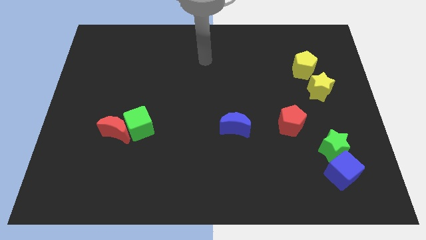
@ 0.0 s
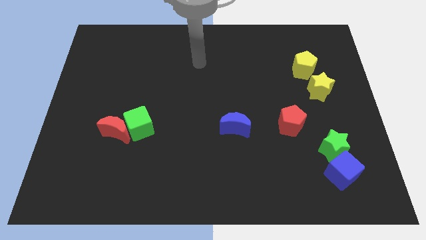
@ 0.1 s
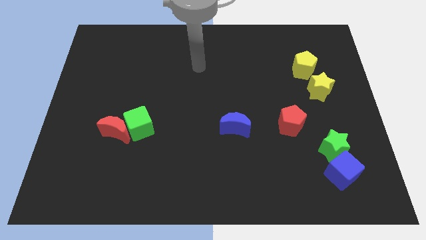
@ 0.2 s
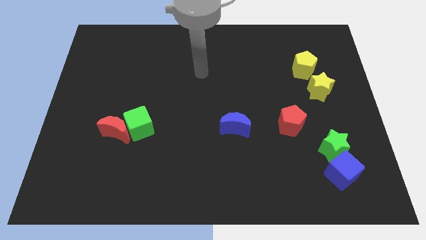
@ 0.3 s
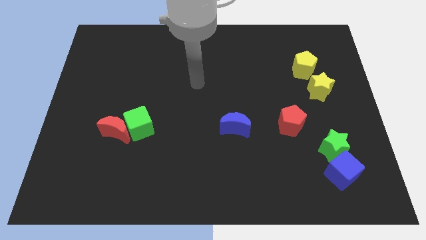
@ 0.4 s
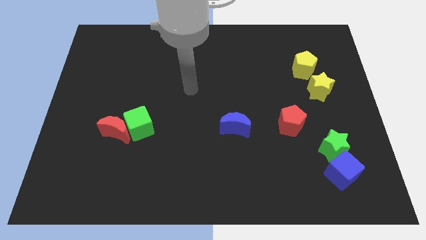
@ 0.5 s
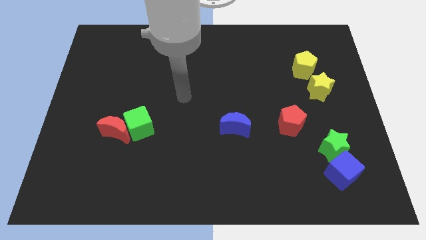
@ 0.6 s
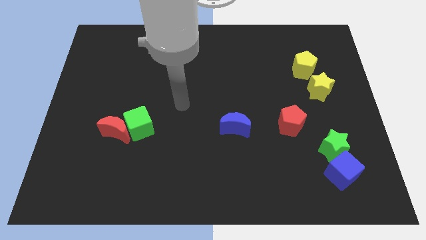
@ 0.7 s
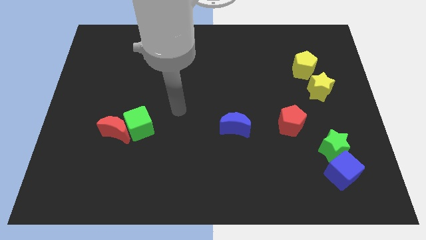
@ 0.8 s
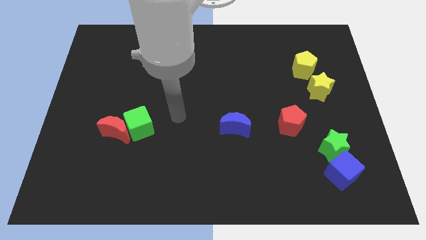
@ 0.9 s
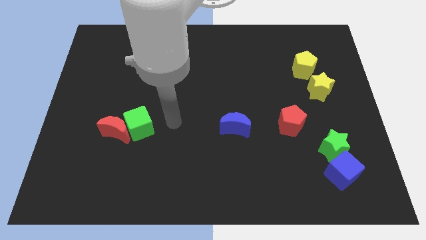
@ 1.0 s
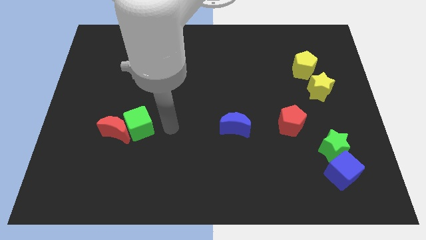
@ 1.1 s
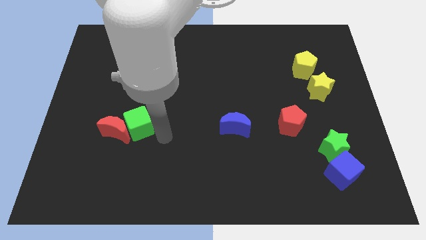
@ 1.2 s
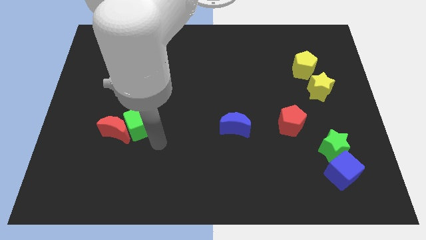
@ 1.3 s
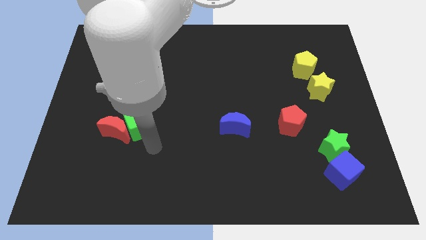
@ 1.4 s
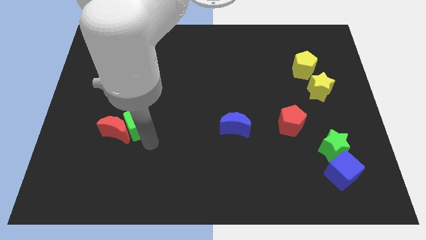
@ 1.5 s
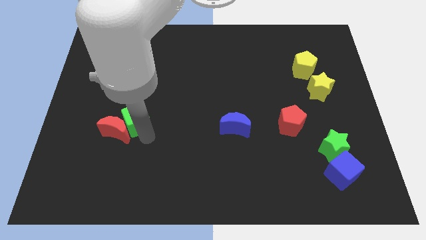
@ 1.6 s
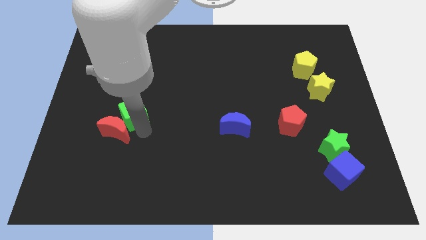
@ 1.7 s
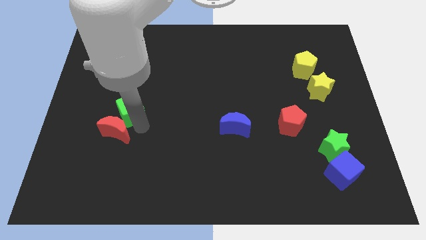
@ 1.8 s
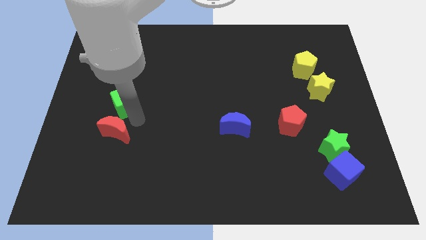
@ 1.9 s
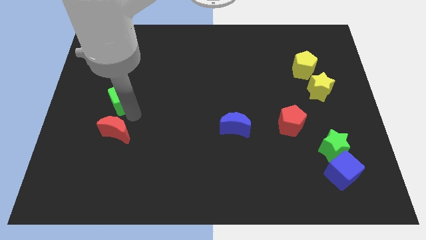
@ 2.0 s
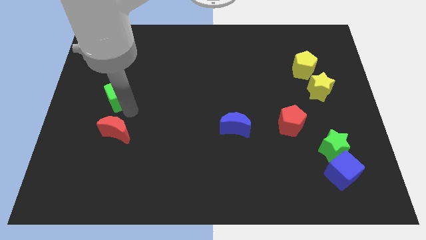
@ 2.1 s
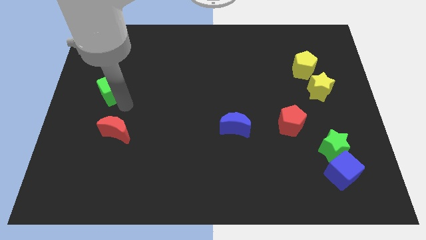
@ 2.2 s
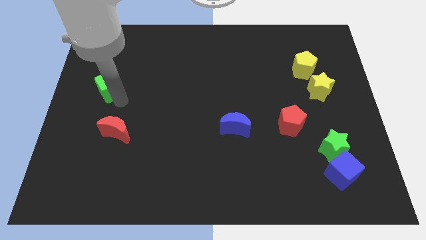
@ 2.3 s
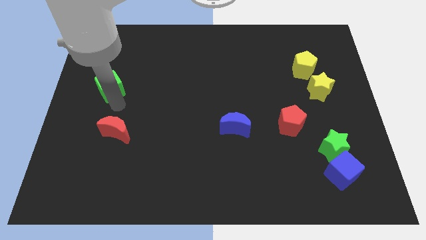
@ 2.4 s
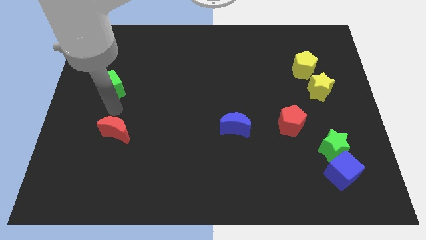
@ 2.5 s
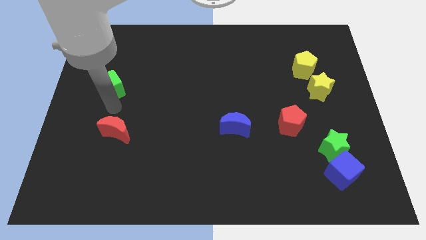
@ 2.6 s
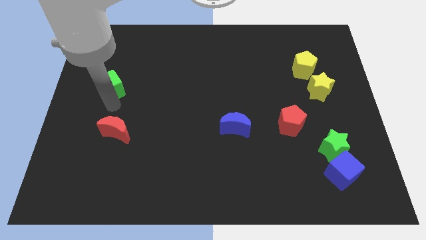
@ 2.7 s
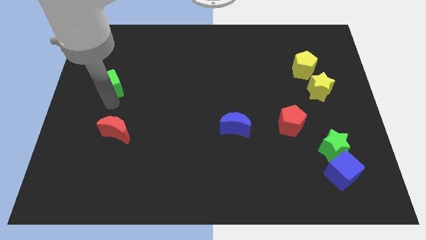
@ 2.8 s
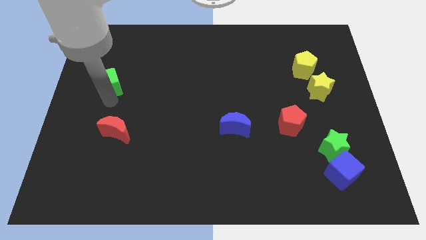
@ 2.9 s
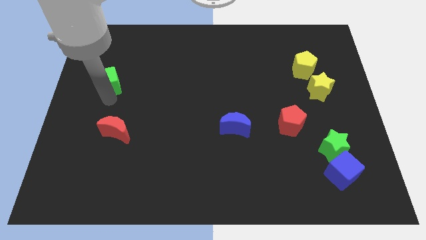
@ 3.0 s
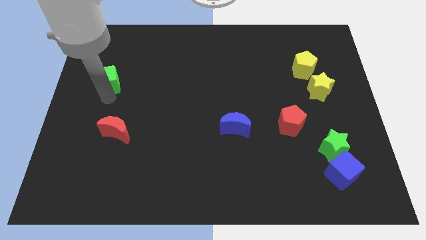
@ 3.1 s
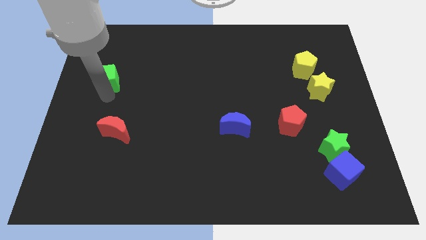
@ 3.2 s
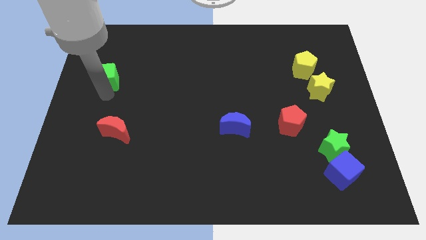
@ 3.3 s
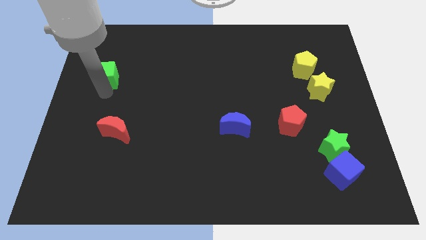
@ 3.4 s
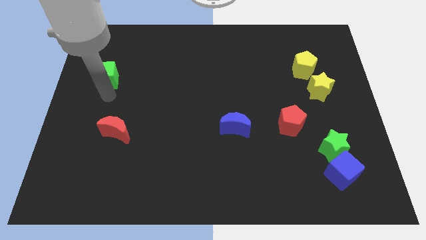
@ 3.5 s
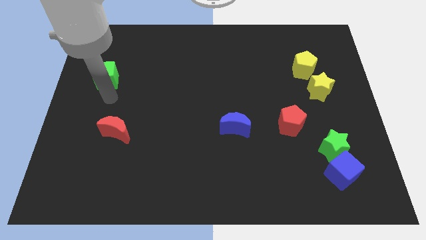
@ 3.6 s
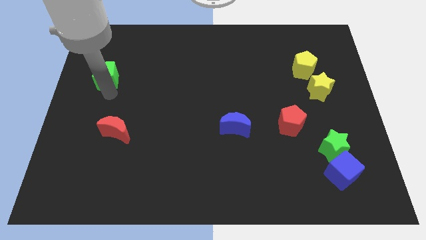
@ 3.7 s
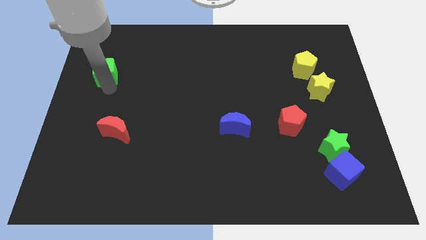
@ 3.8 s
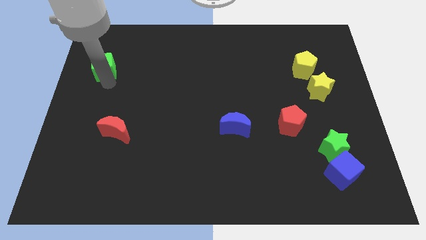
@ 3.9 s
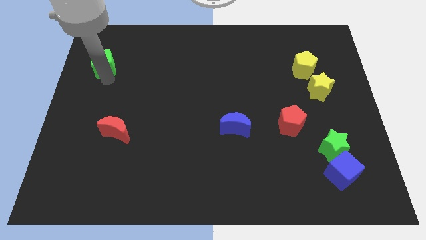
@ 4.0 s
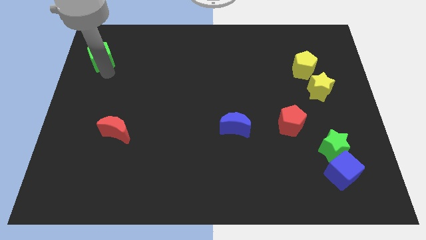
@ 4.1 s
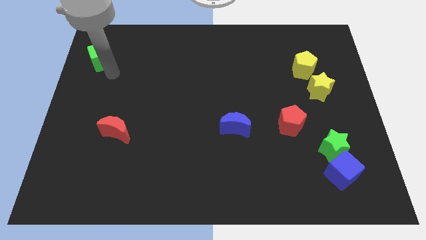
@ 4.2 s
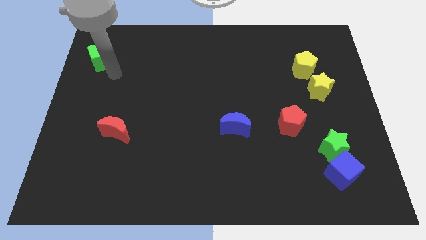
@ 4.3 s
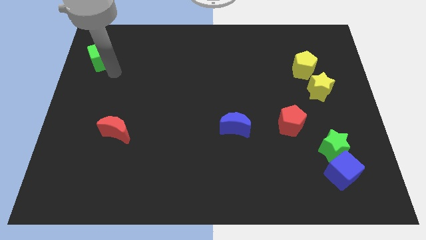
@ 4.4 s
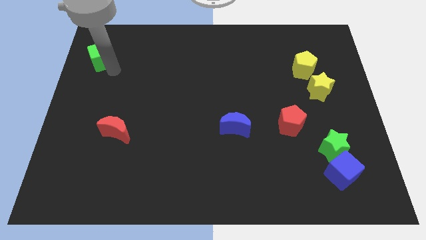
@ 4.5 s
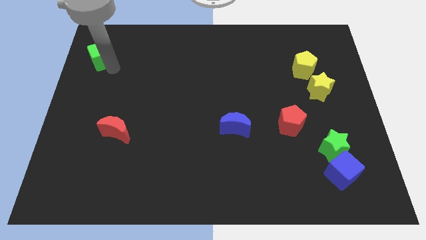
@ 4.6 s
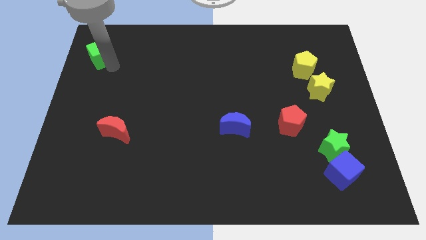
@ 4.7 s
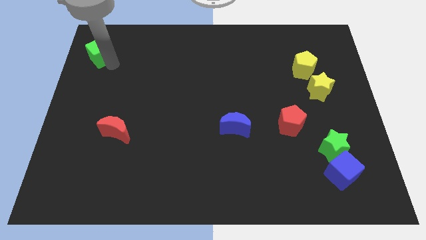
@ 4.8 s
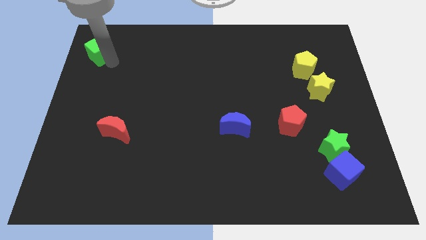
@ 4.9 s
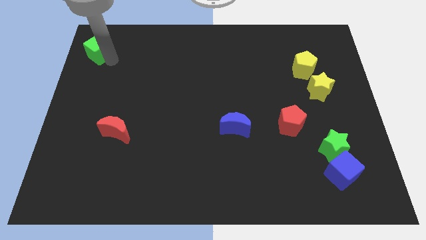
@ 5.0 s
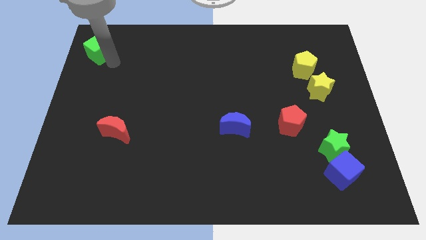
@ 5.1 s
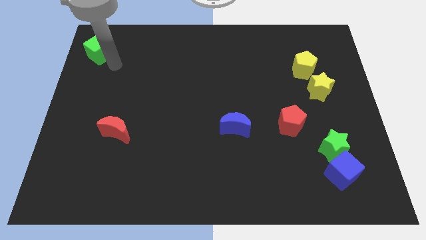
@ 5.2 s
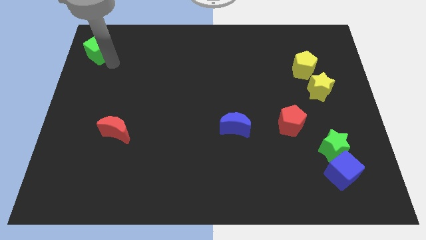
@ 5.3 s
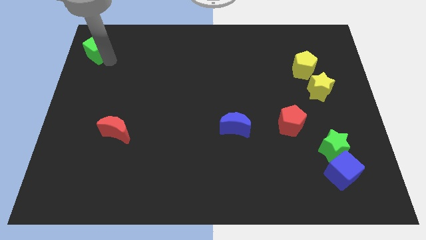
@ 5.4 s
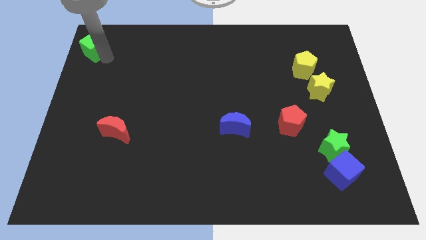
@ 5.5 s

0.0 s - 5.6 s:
move the green cube to the top left corner

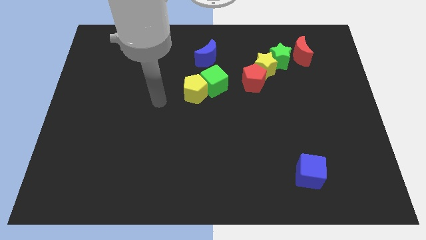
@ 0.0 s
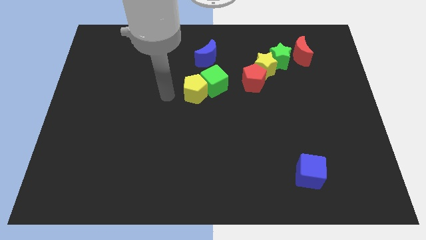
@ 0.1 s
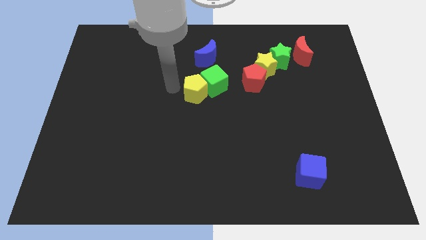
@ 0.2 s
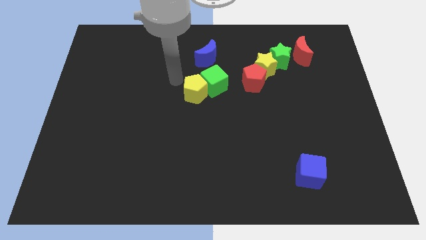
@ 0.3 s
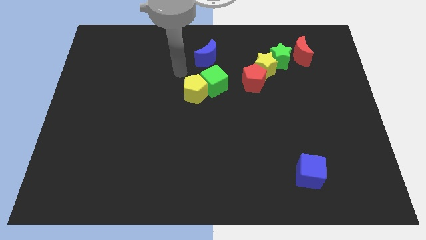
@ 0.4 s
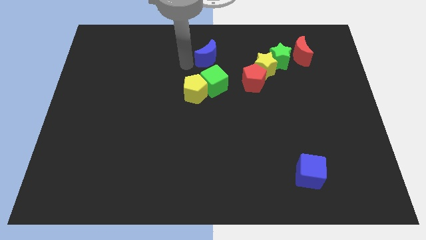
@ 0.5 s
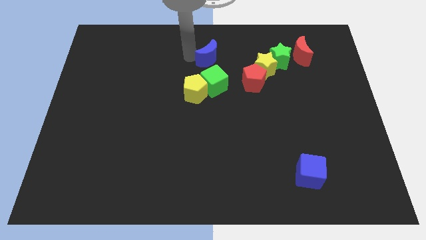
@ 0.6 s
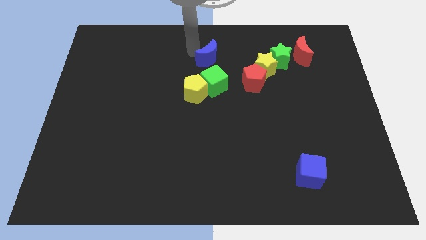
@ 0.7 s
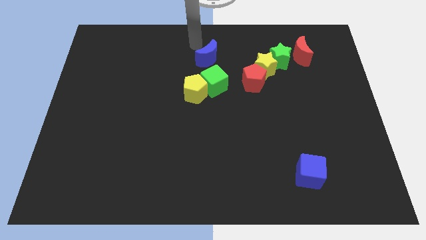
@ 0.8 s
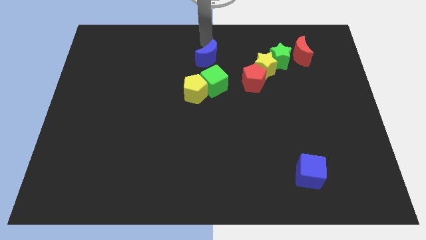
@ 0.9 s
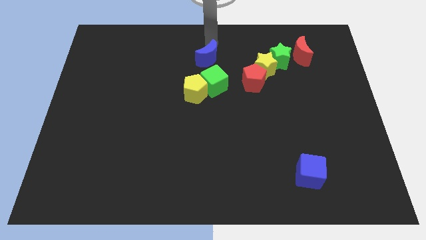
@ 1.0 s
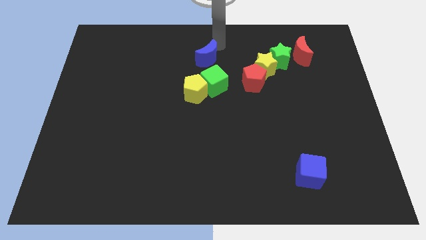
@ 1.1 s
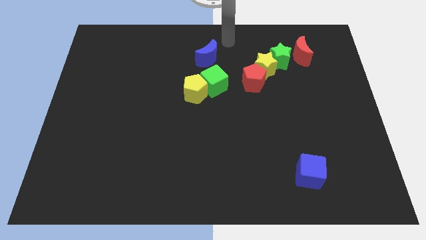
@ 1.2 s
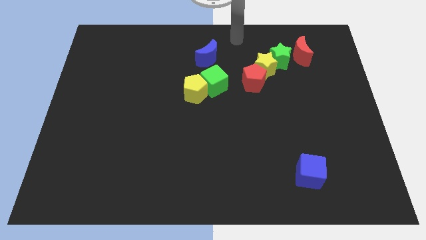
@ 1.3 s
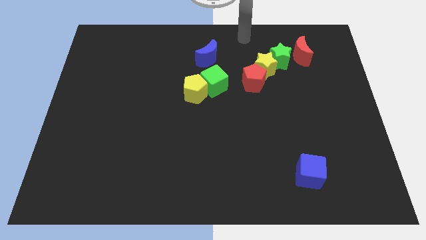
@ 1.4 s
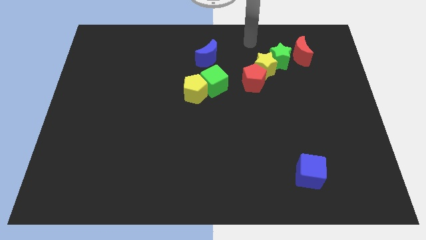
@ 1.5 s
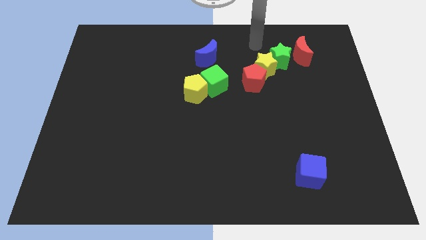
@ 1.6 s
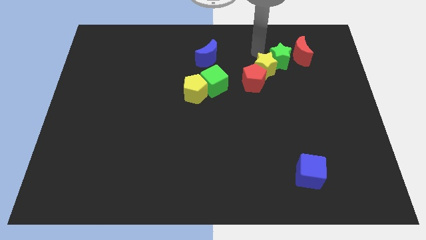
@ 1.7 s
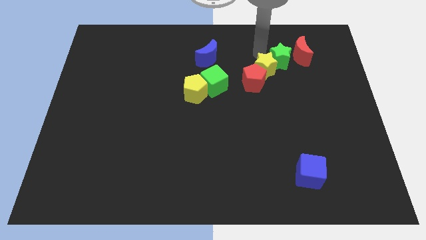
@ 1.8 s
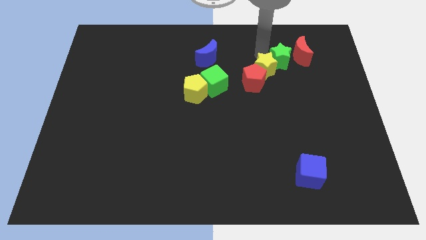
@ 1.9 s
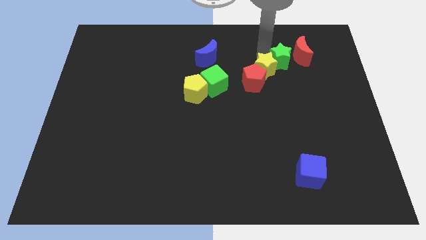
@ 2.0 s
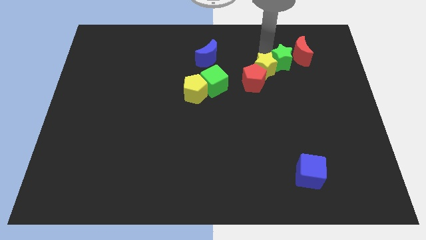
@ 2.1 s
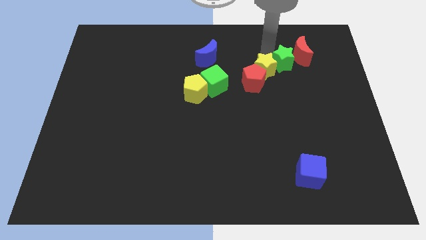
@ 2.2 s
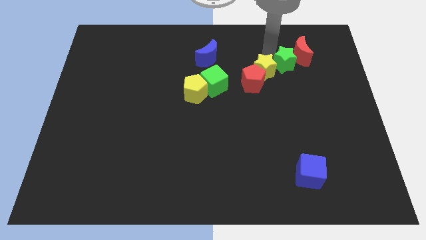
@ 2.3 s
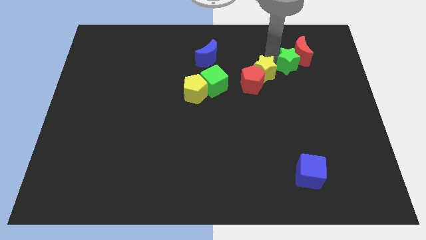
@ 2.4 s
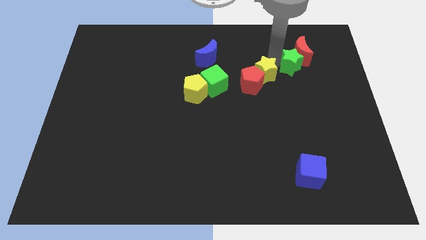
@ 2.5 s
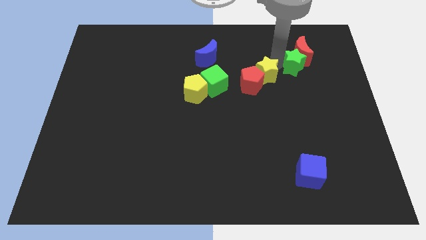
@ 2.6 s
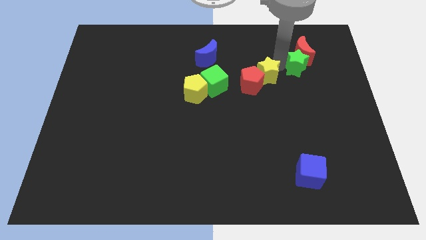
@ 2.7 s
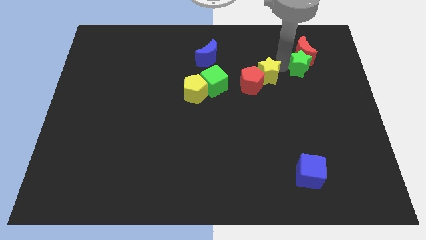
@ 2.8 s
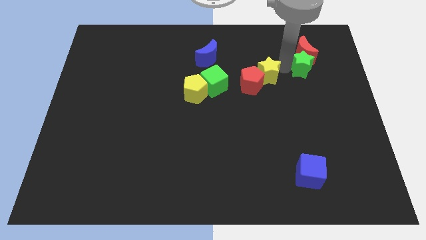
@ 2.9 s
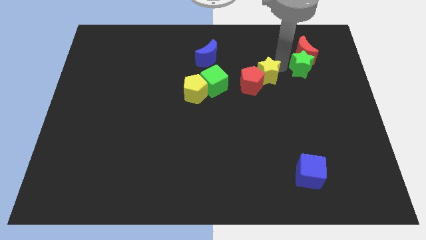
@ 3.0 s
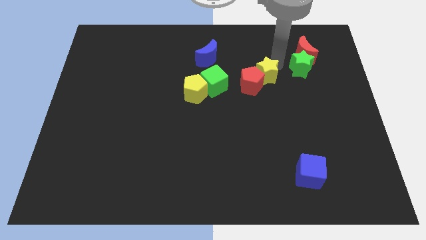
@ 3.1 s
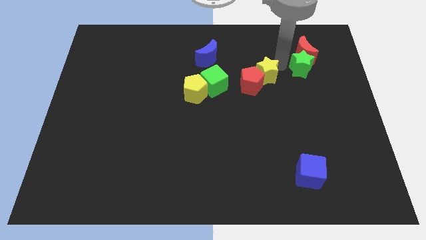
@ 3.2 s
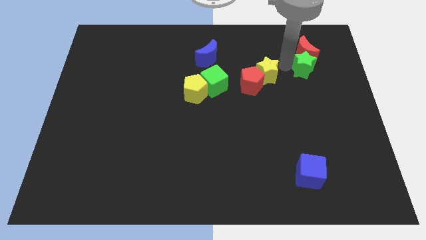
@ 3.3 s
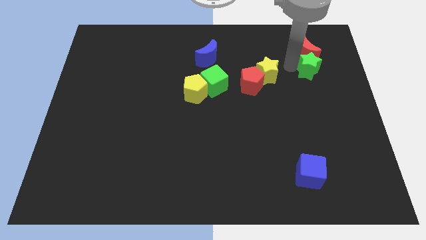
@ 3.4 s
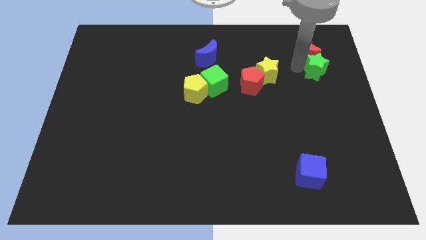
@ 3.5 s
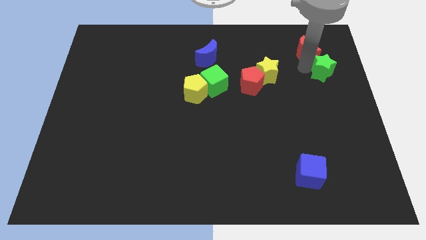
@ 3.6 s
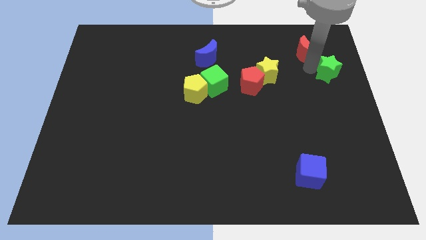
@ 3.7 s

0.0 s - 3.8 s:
slide the green star to the center right
